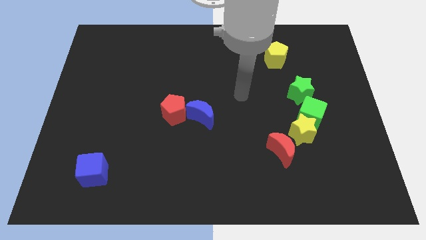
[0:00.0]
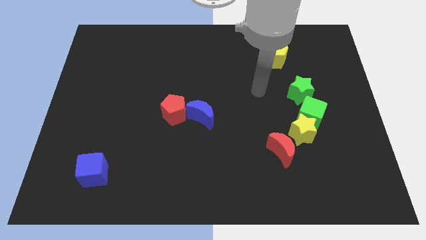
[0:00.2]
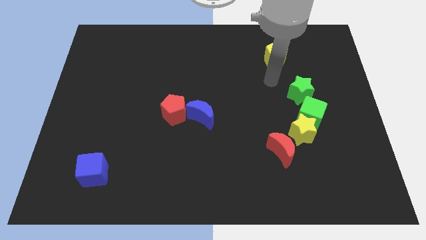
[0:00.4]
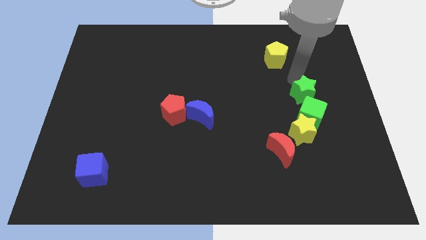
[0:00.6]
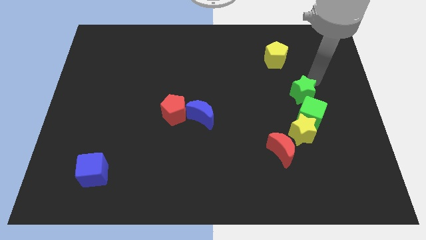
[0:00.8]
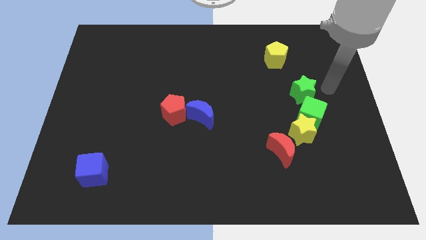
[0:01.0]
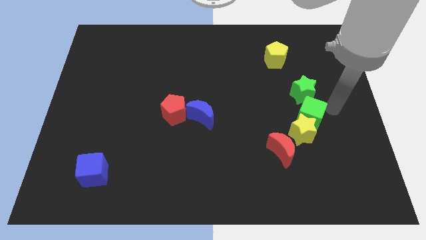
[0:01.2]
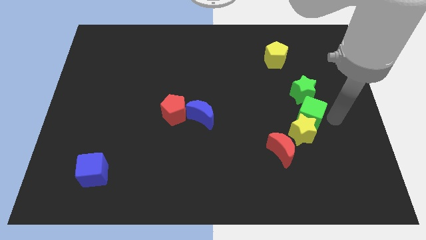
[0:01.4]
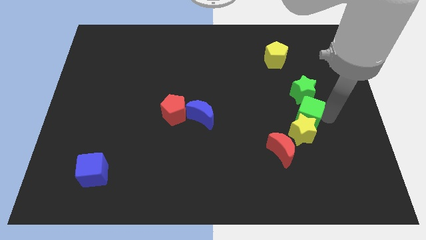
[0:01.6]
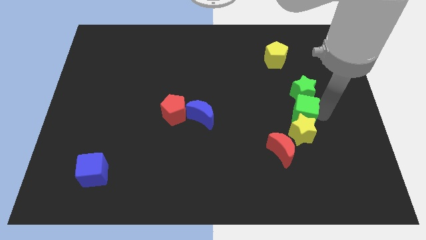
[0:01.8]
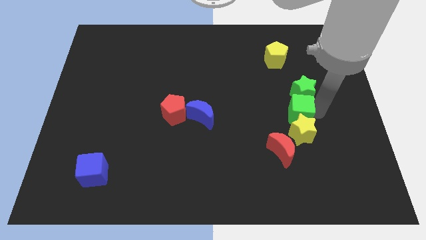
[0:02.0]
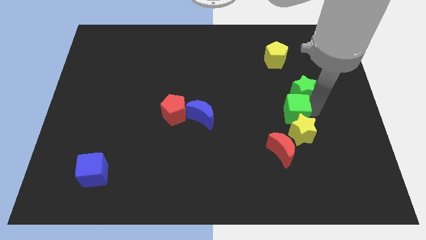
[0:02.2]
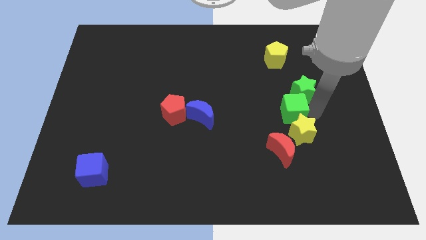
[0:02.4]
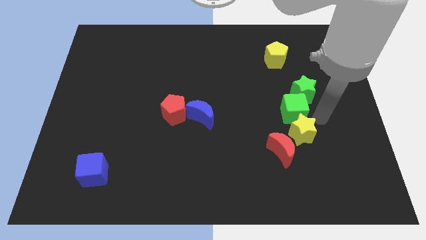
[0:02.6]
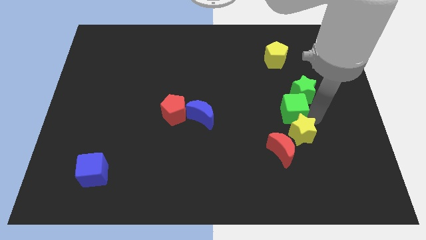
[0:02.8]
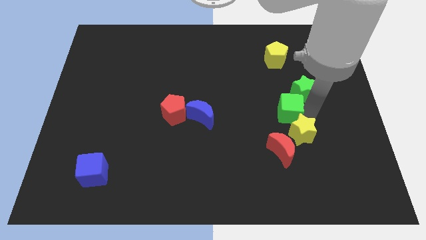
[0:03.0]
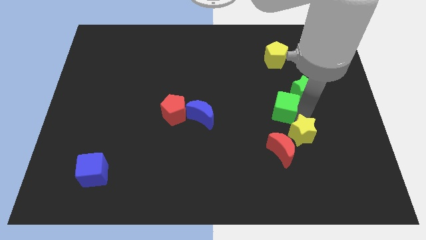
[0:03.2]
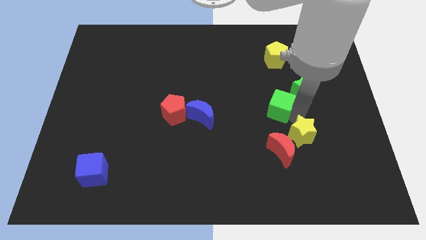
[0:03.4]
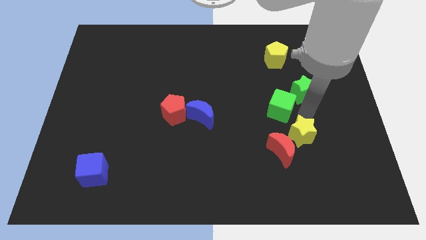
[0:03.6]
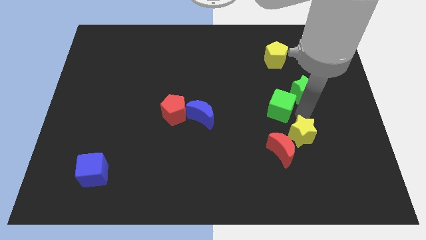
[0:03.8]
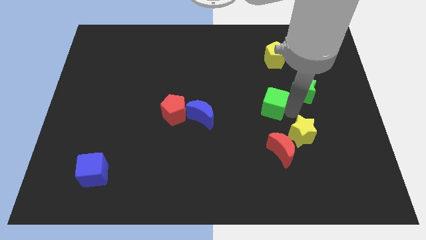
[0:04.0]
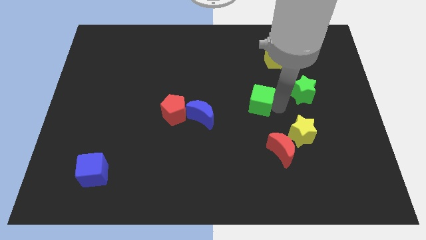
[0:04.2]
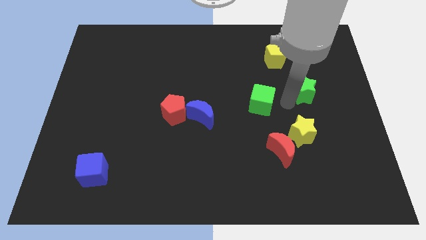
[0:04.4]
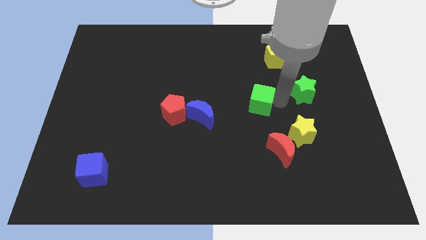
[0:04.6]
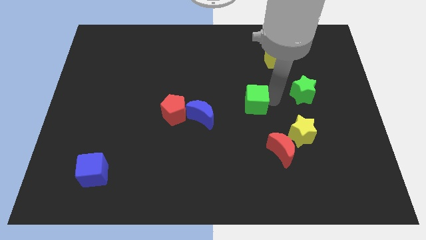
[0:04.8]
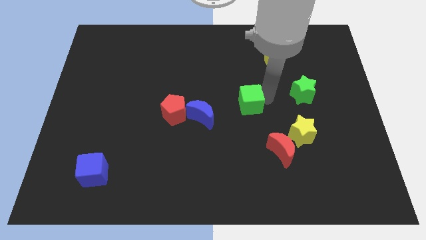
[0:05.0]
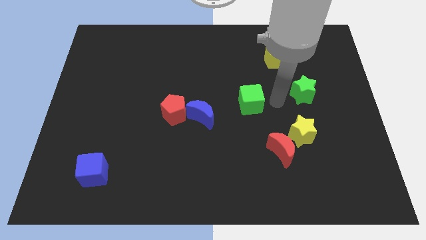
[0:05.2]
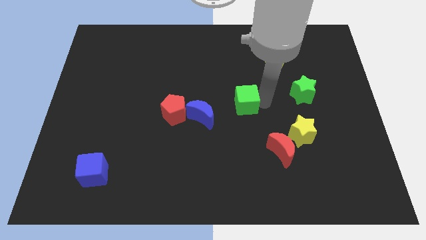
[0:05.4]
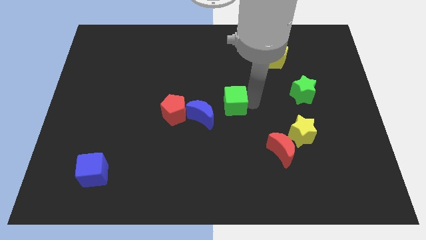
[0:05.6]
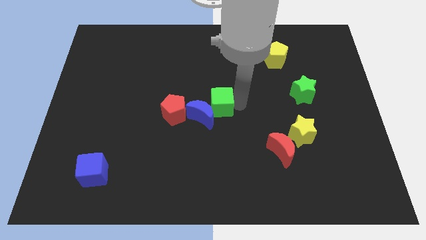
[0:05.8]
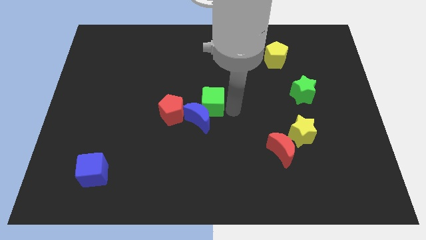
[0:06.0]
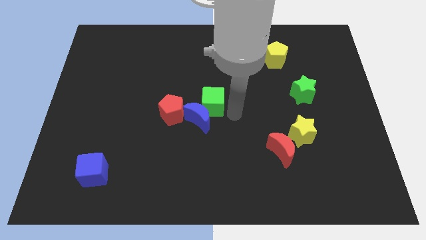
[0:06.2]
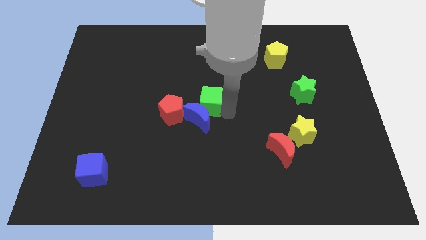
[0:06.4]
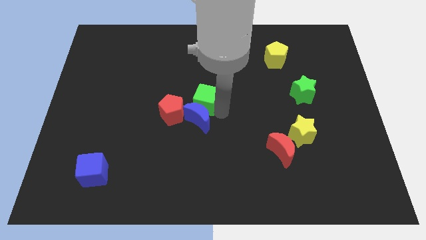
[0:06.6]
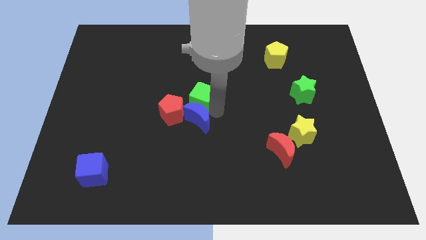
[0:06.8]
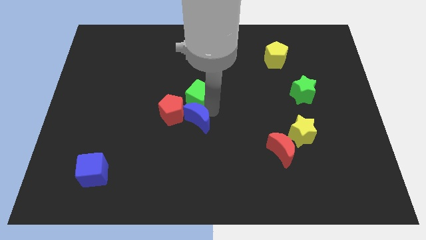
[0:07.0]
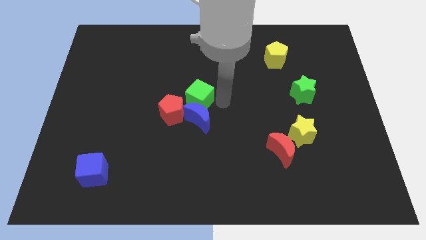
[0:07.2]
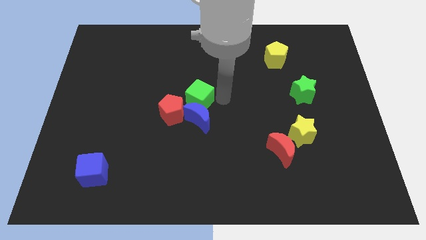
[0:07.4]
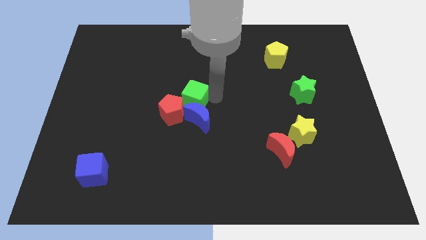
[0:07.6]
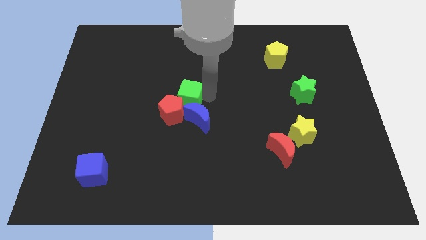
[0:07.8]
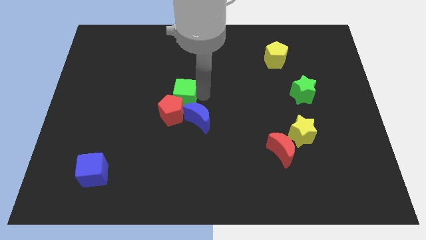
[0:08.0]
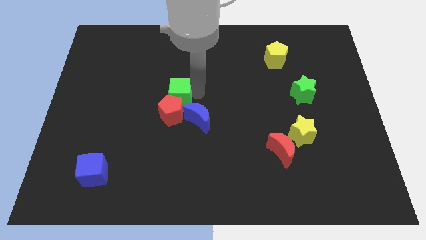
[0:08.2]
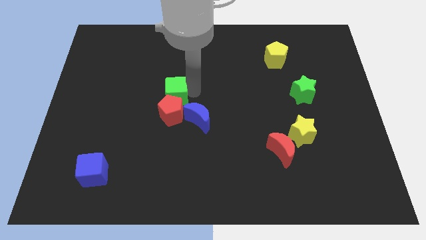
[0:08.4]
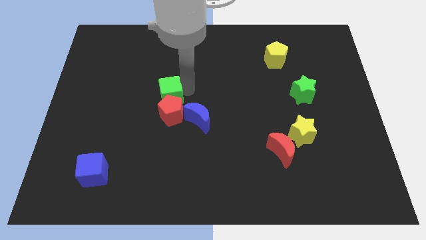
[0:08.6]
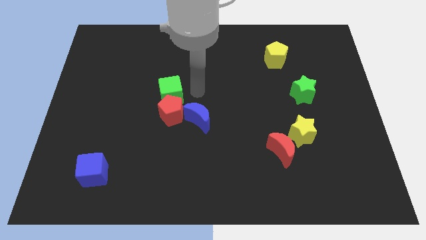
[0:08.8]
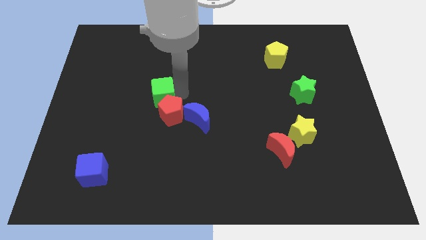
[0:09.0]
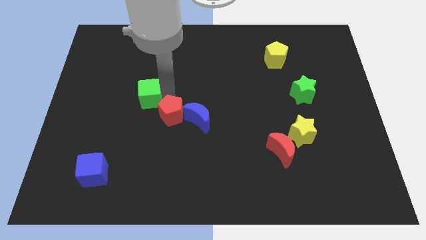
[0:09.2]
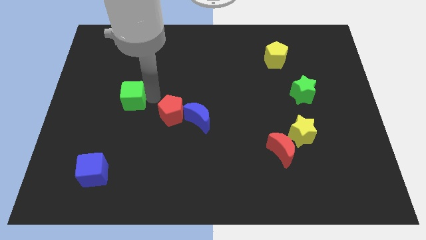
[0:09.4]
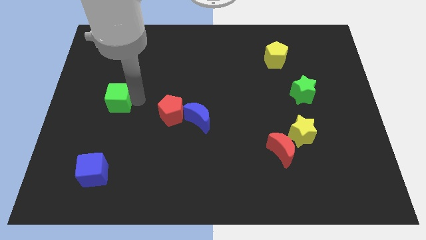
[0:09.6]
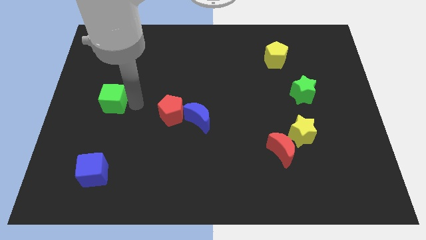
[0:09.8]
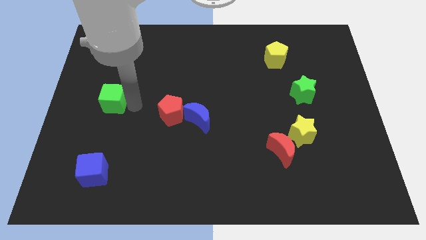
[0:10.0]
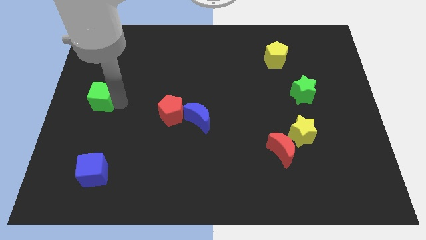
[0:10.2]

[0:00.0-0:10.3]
push the green cube to the left side

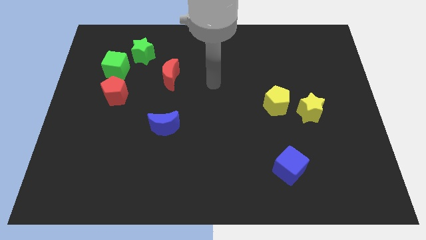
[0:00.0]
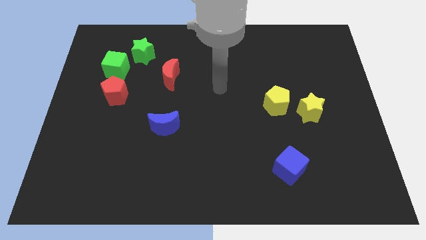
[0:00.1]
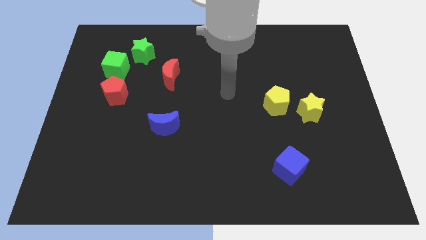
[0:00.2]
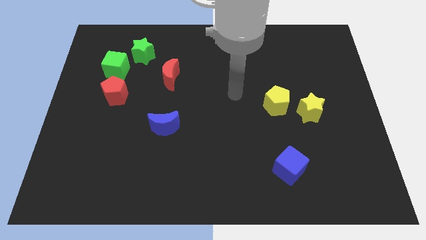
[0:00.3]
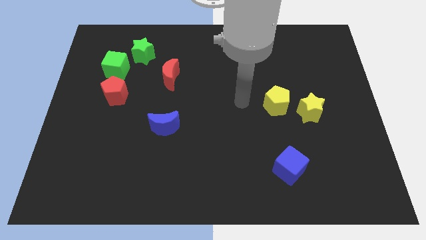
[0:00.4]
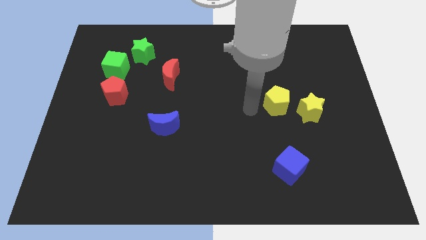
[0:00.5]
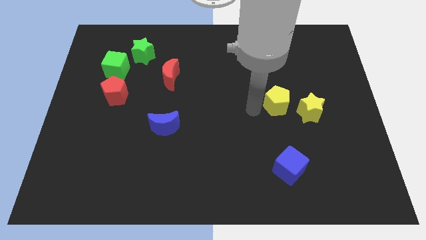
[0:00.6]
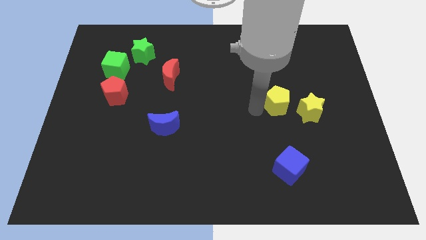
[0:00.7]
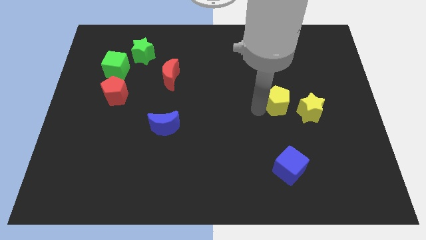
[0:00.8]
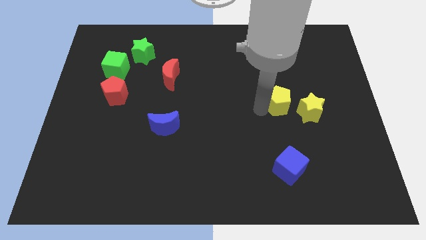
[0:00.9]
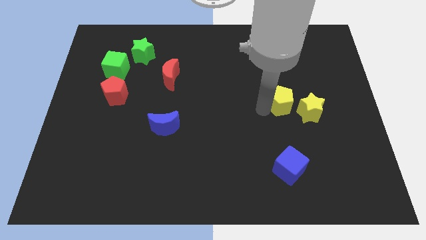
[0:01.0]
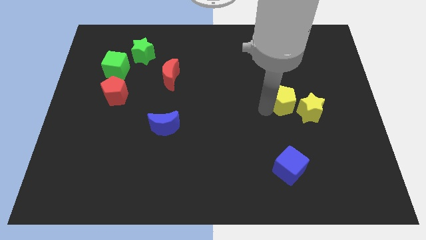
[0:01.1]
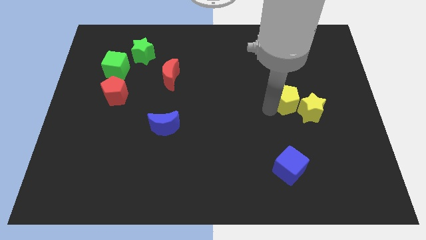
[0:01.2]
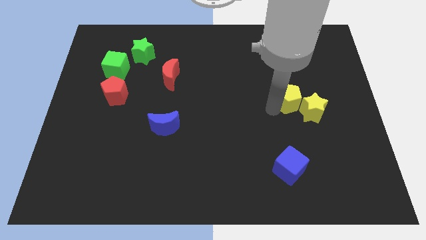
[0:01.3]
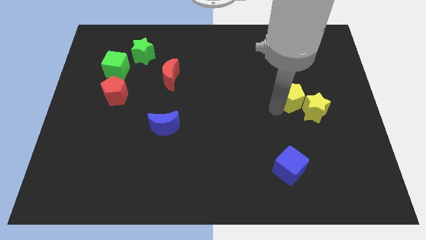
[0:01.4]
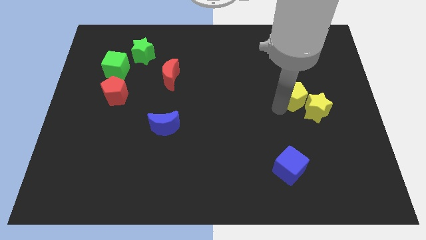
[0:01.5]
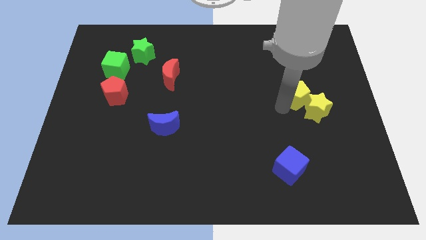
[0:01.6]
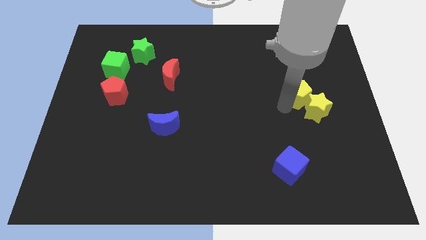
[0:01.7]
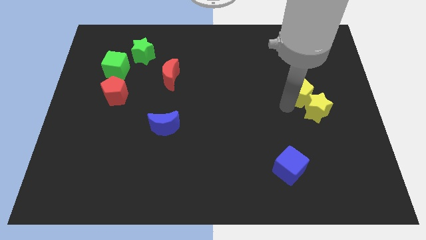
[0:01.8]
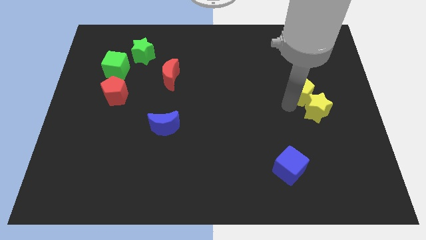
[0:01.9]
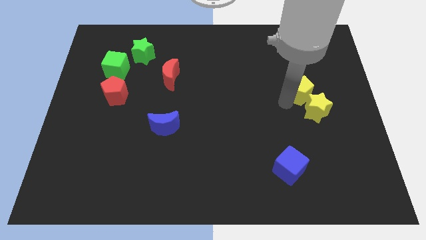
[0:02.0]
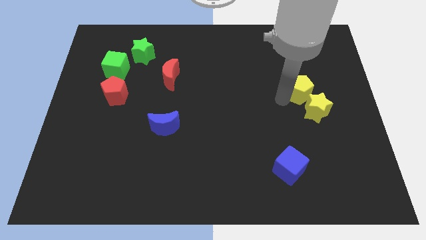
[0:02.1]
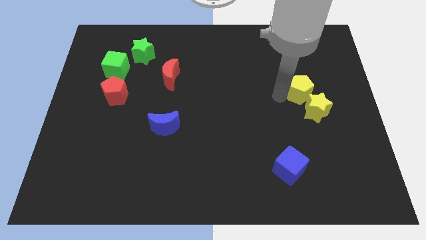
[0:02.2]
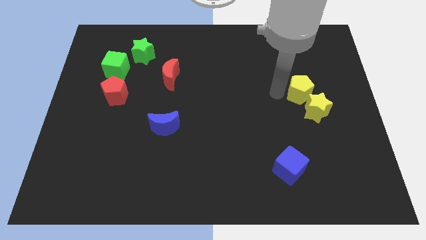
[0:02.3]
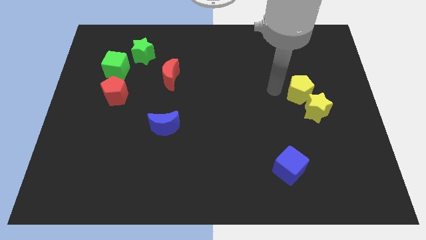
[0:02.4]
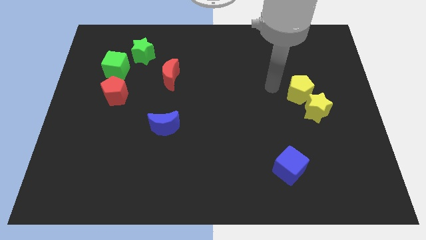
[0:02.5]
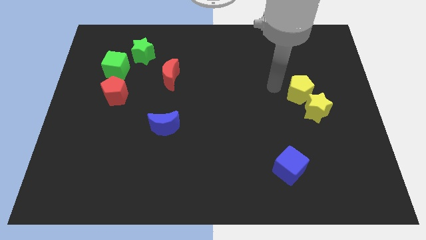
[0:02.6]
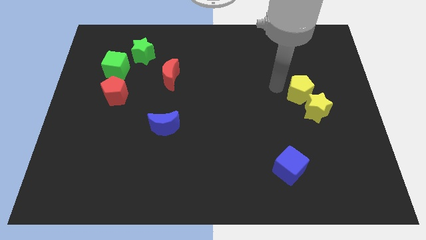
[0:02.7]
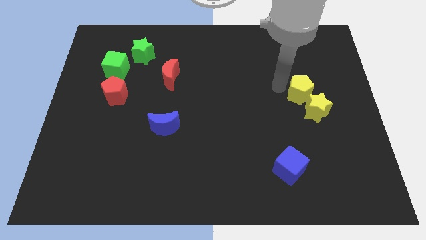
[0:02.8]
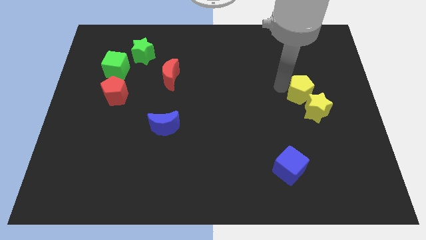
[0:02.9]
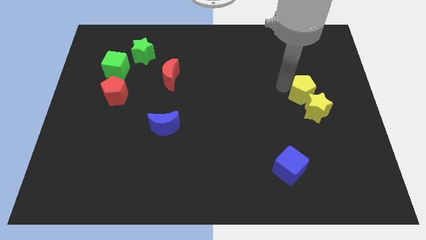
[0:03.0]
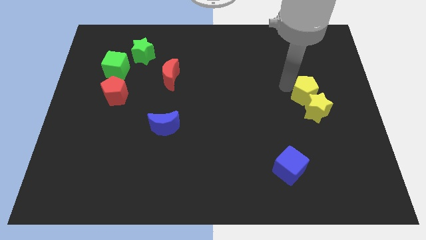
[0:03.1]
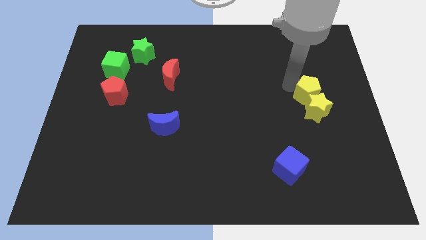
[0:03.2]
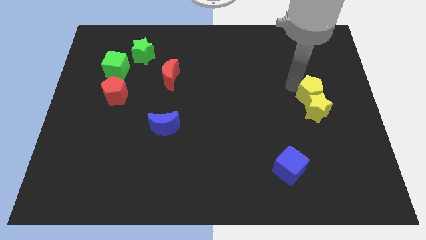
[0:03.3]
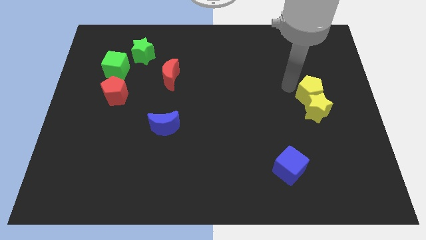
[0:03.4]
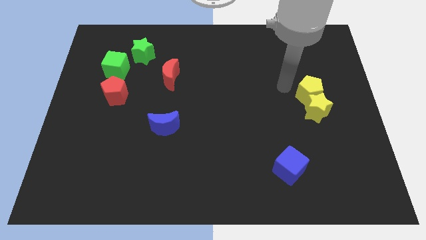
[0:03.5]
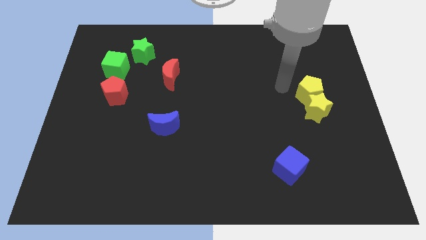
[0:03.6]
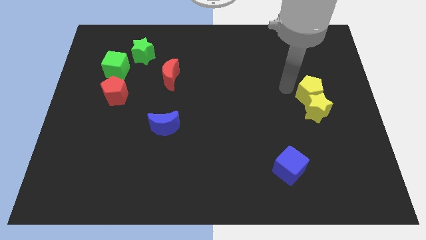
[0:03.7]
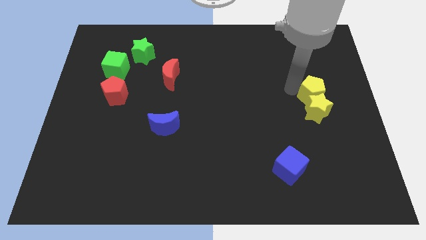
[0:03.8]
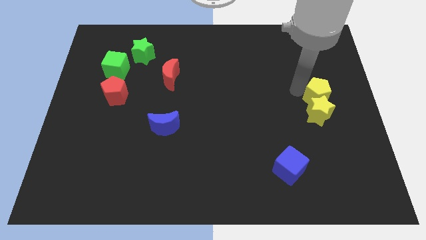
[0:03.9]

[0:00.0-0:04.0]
push the yellow pentagon to the right side of the board
